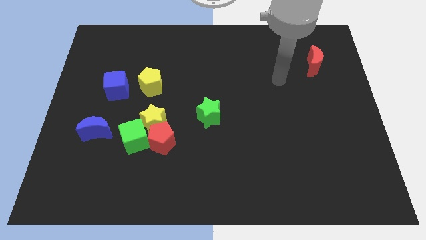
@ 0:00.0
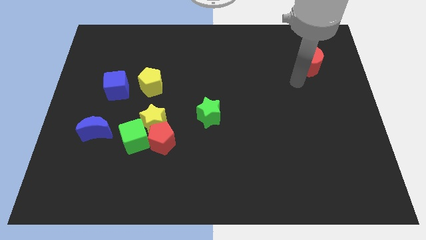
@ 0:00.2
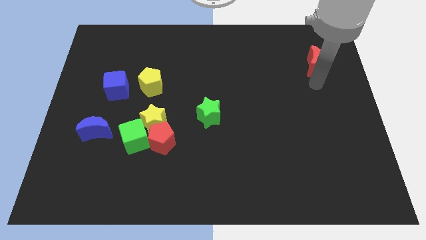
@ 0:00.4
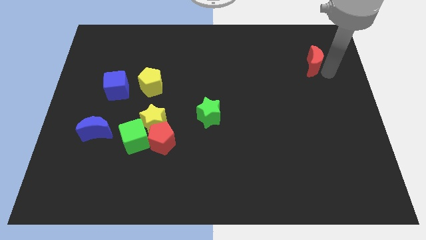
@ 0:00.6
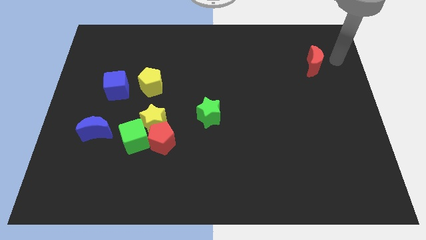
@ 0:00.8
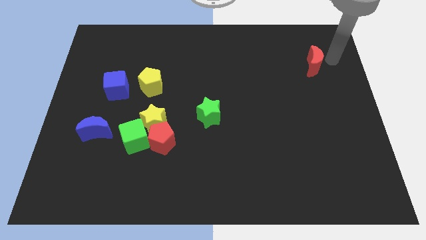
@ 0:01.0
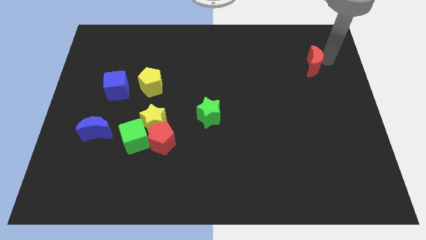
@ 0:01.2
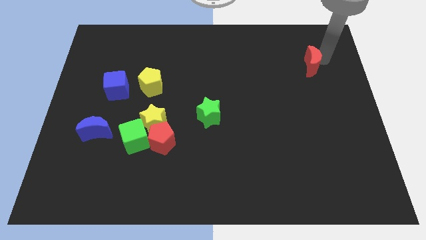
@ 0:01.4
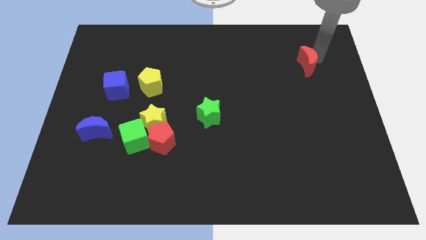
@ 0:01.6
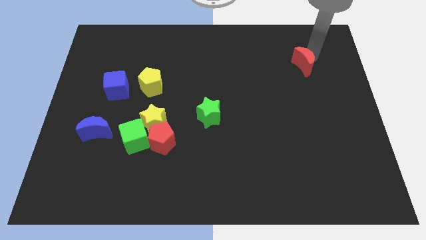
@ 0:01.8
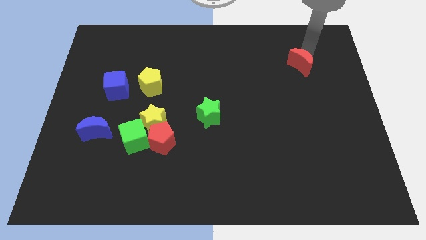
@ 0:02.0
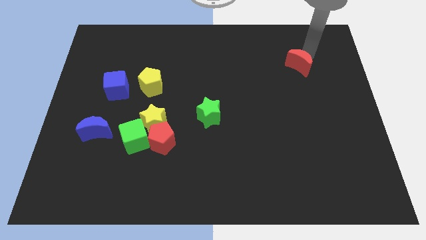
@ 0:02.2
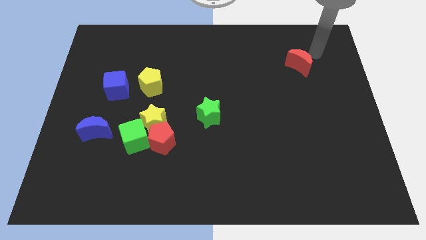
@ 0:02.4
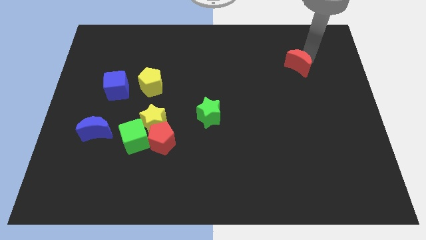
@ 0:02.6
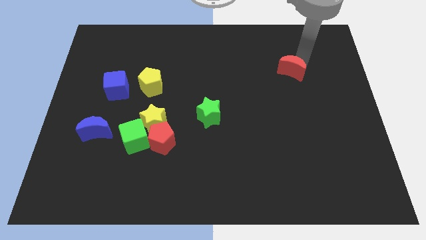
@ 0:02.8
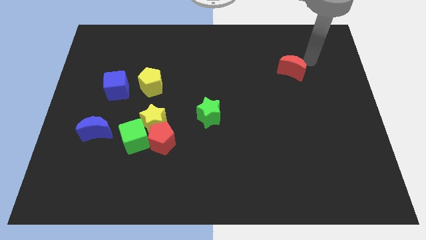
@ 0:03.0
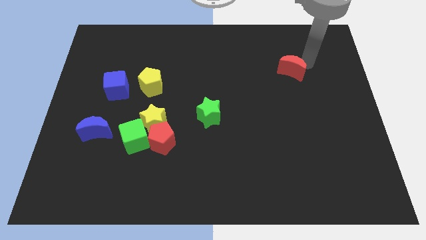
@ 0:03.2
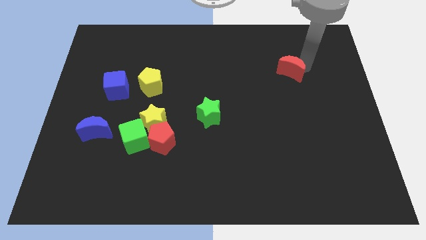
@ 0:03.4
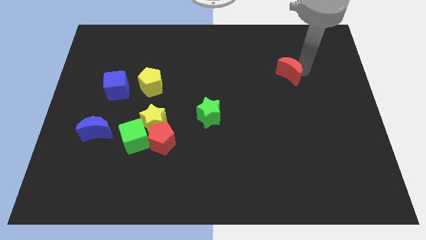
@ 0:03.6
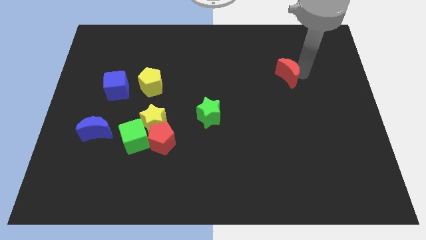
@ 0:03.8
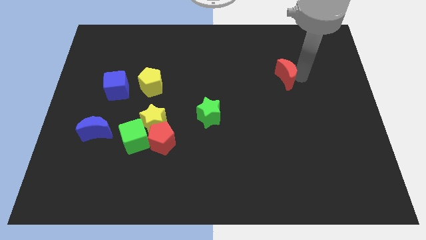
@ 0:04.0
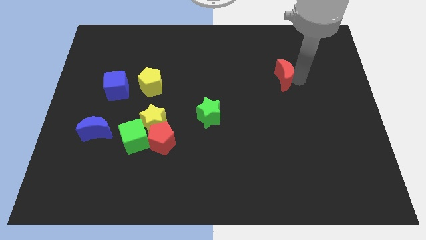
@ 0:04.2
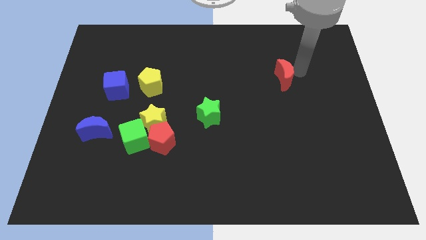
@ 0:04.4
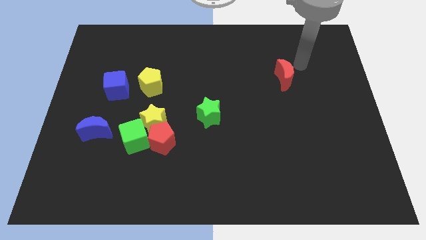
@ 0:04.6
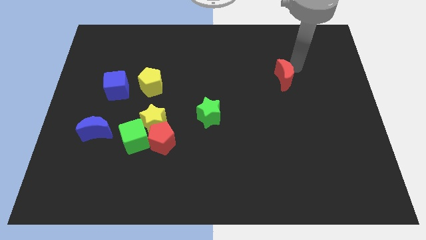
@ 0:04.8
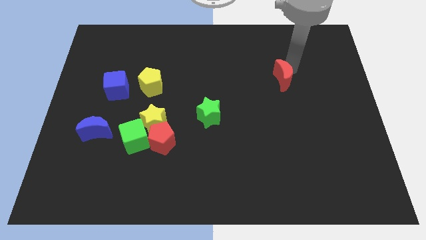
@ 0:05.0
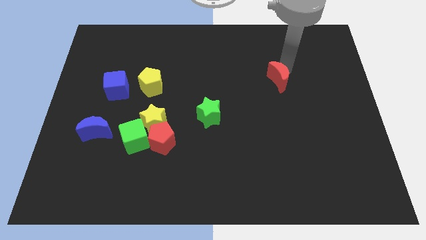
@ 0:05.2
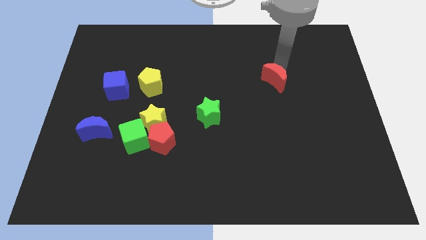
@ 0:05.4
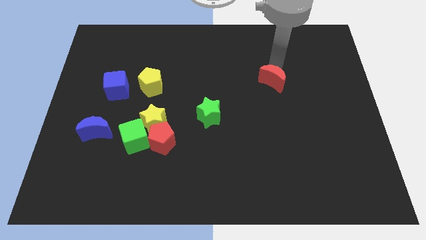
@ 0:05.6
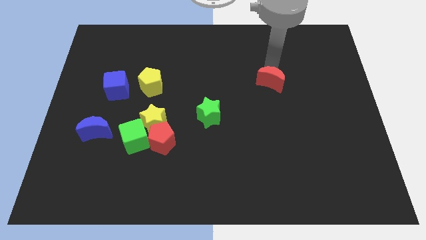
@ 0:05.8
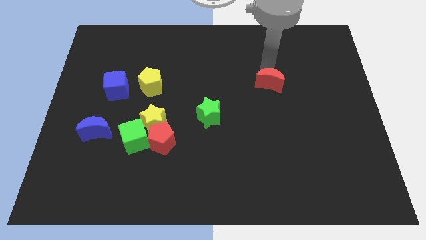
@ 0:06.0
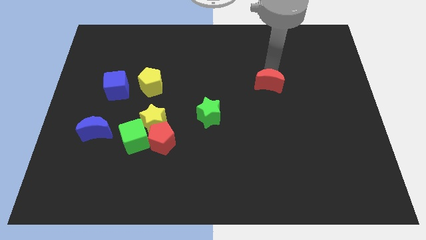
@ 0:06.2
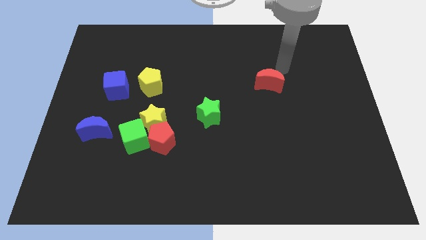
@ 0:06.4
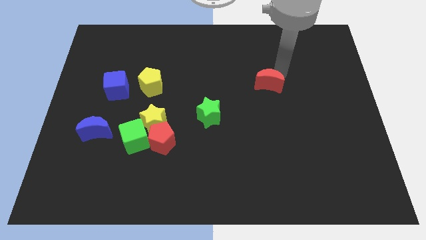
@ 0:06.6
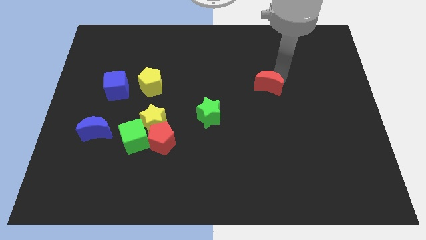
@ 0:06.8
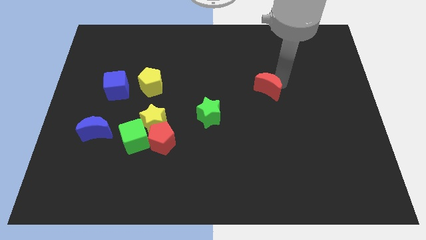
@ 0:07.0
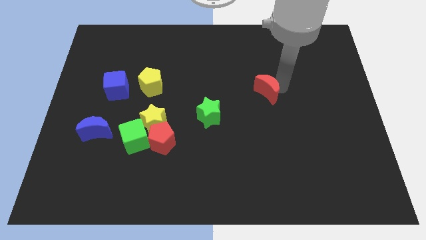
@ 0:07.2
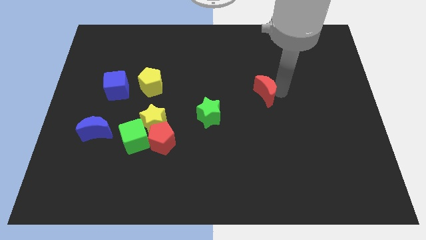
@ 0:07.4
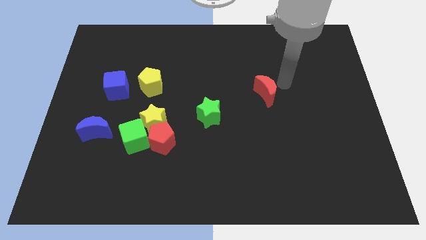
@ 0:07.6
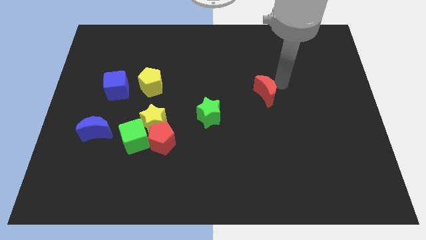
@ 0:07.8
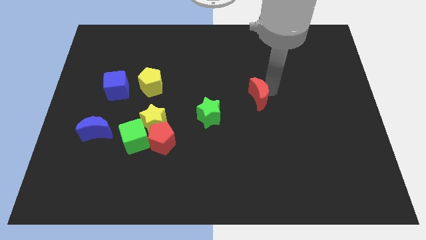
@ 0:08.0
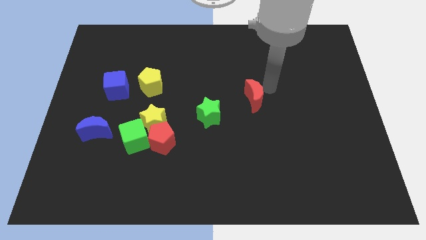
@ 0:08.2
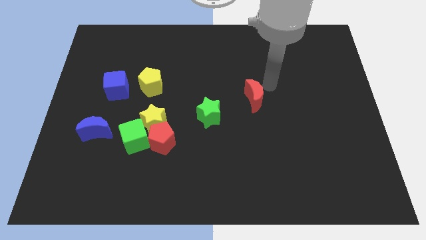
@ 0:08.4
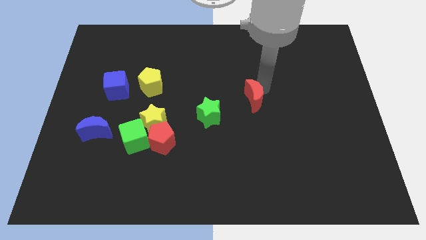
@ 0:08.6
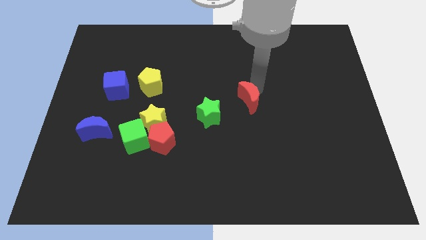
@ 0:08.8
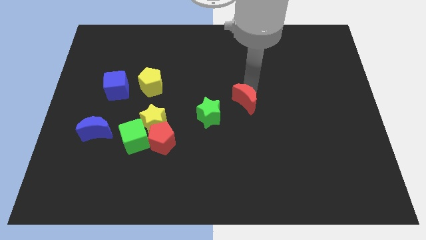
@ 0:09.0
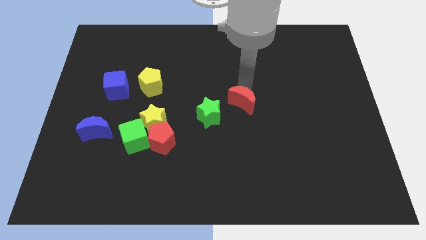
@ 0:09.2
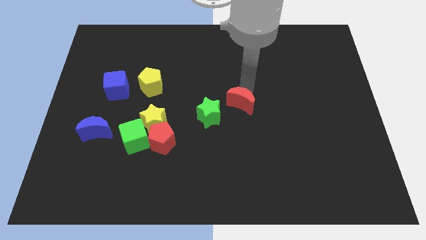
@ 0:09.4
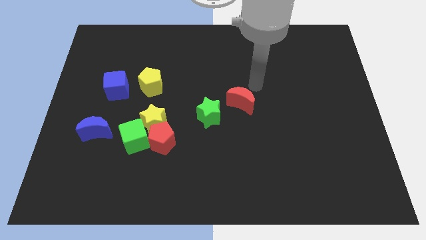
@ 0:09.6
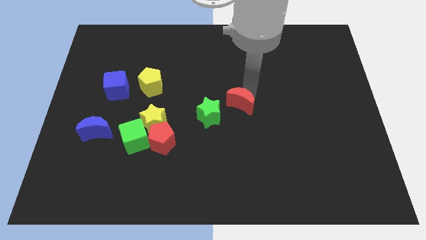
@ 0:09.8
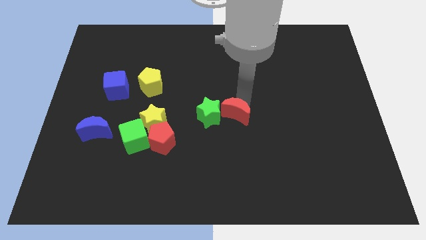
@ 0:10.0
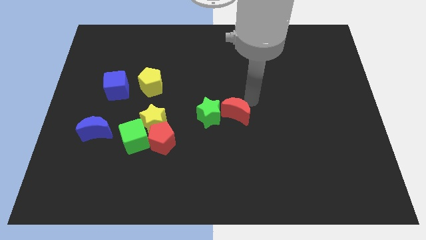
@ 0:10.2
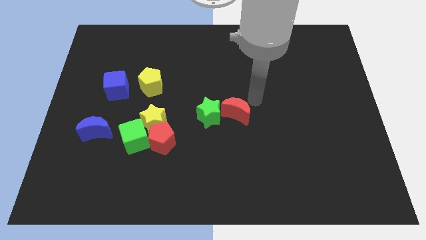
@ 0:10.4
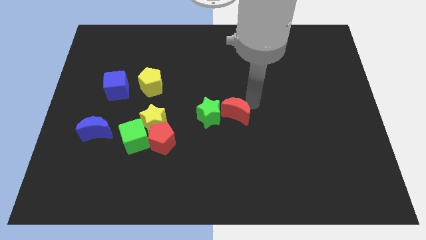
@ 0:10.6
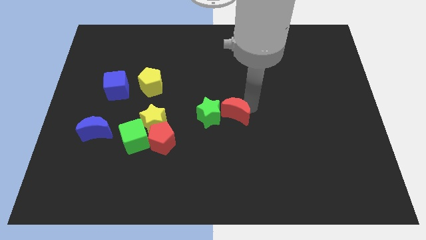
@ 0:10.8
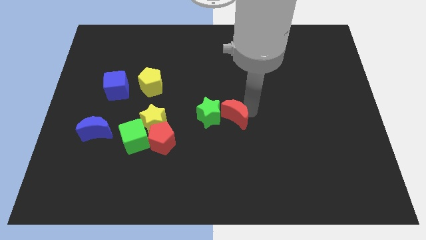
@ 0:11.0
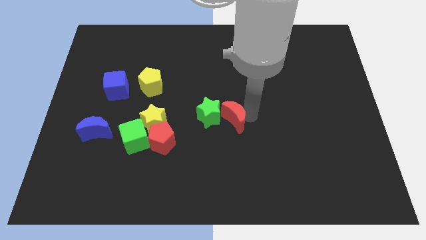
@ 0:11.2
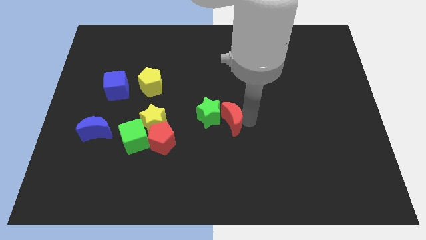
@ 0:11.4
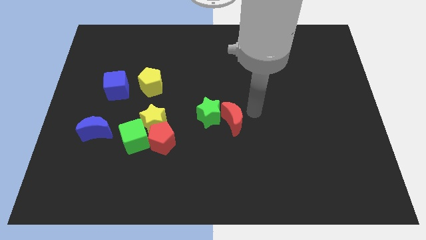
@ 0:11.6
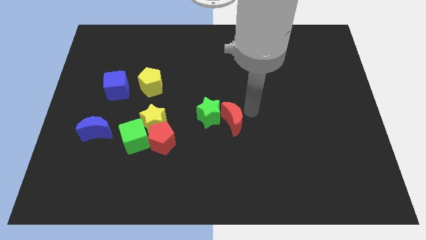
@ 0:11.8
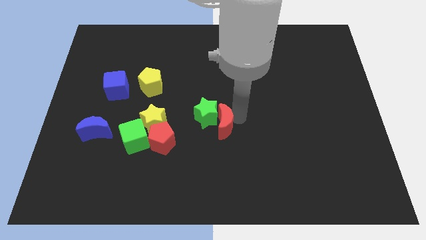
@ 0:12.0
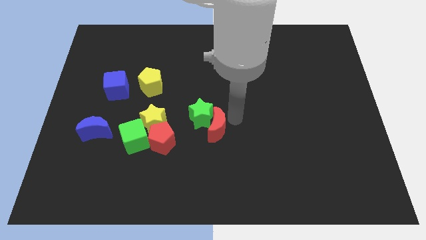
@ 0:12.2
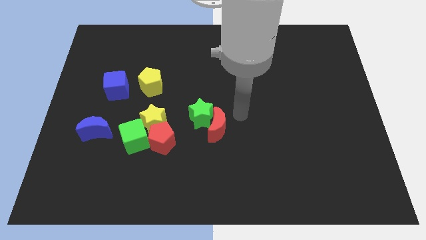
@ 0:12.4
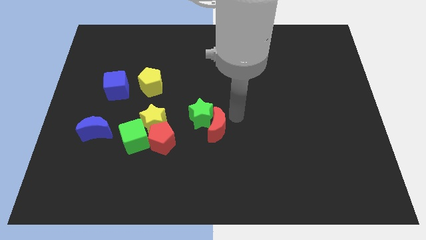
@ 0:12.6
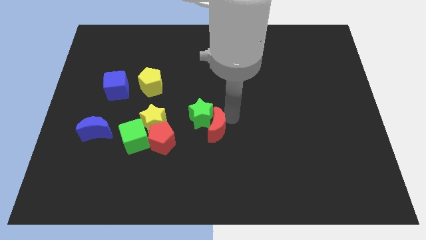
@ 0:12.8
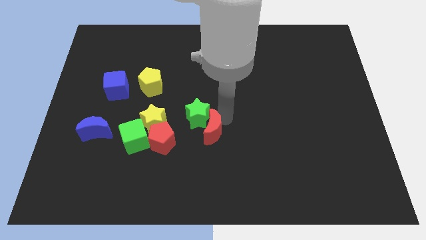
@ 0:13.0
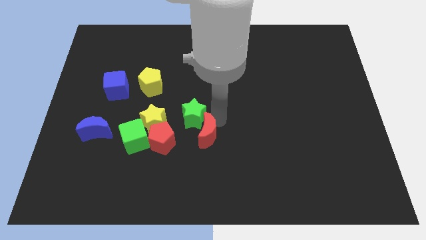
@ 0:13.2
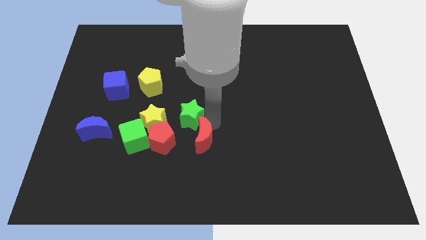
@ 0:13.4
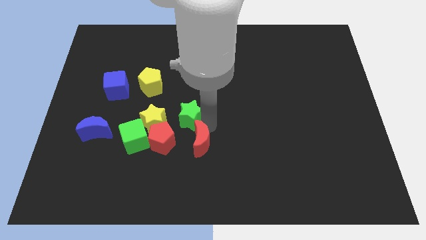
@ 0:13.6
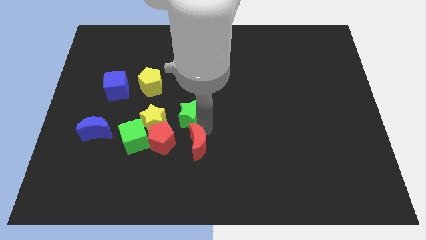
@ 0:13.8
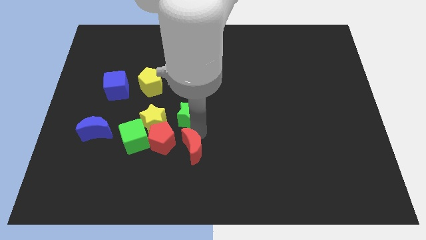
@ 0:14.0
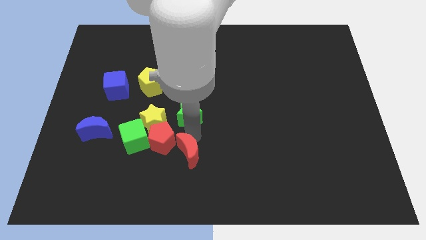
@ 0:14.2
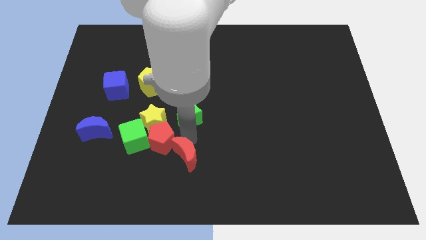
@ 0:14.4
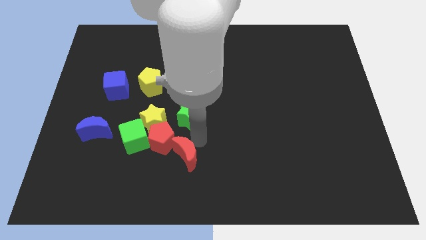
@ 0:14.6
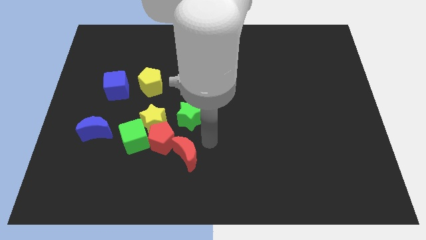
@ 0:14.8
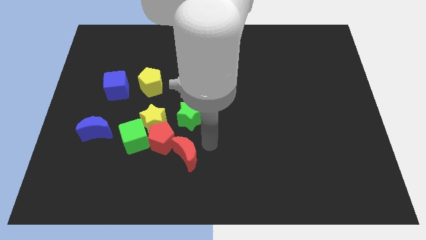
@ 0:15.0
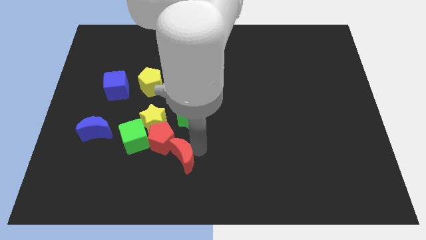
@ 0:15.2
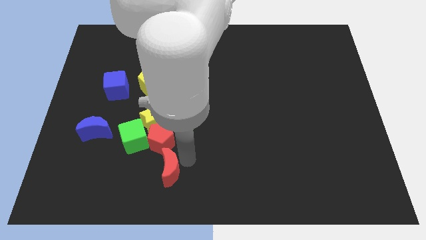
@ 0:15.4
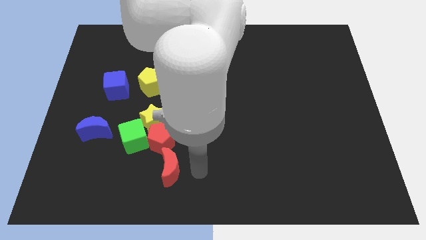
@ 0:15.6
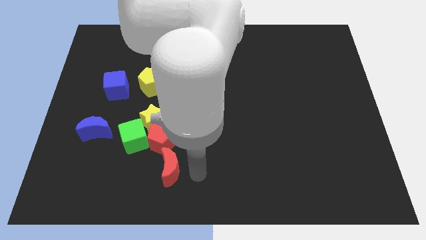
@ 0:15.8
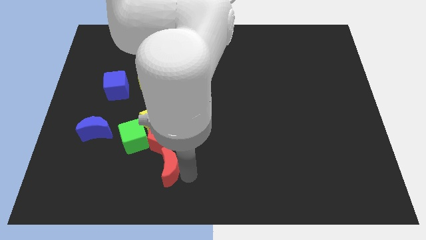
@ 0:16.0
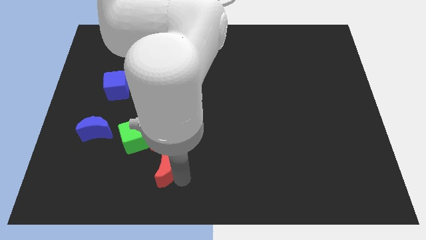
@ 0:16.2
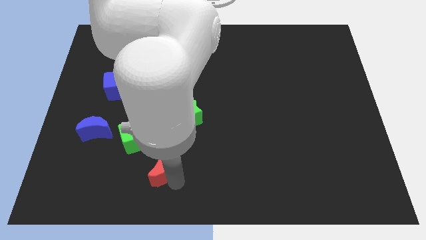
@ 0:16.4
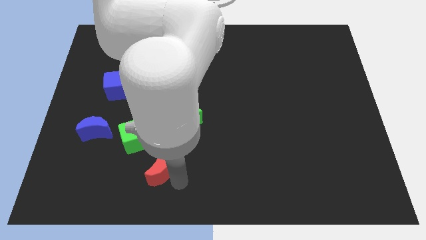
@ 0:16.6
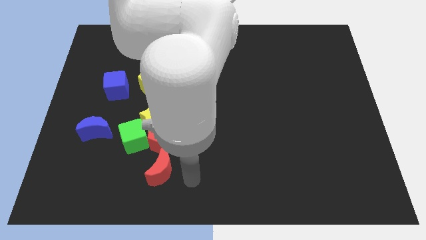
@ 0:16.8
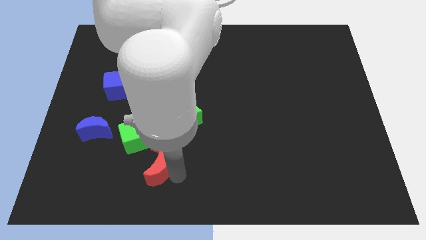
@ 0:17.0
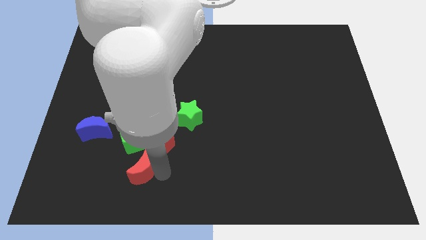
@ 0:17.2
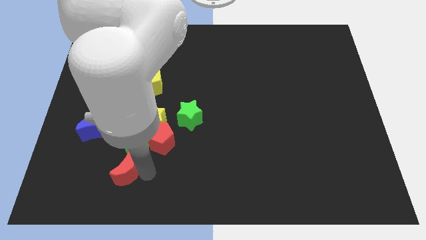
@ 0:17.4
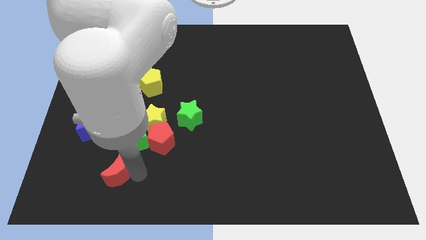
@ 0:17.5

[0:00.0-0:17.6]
move the red moon to the bottom left side of the green cube
